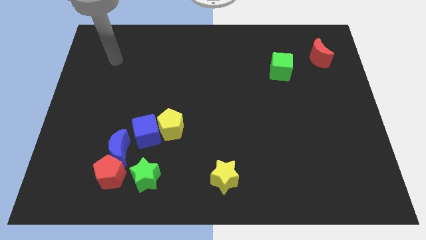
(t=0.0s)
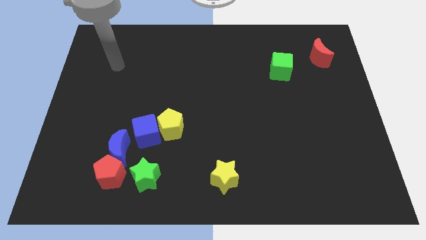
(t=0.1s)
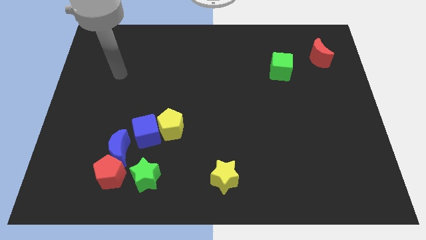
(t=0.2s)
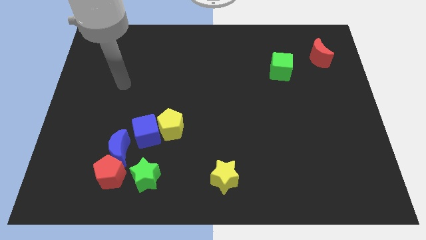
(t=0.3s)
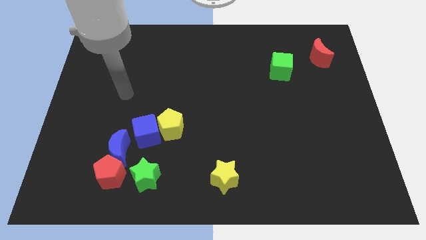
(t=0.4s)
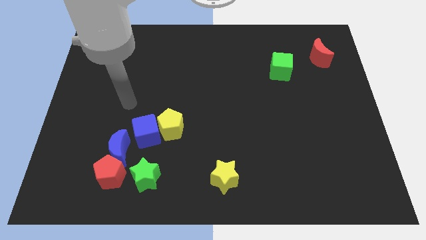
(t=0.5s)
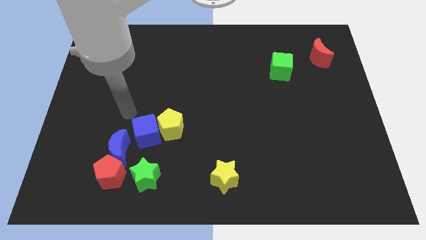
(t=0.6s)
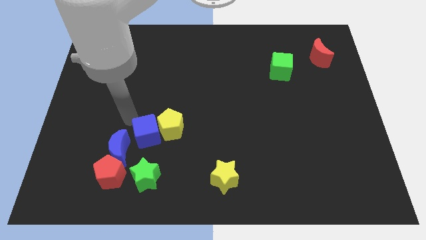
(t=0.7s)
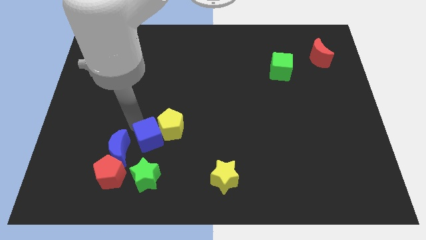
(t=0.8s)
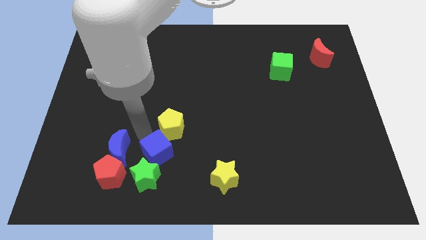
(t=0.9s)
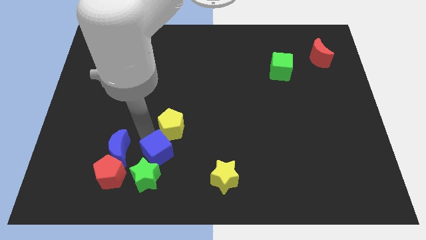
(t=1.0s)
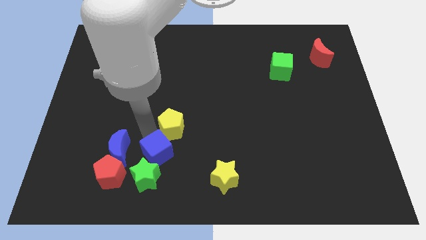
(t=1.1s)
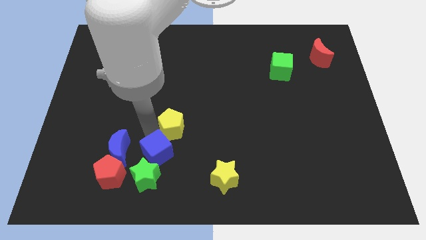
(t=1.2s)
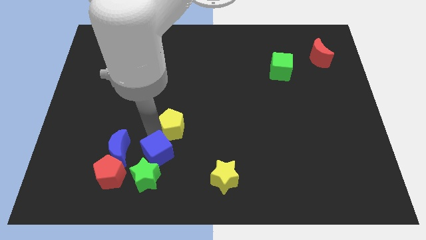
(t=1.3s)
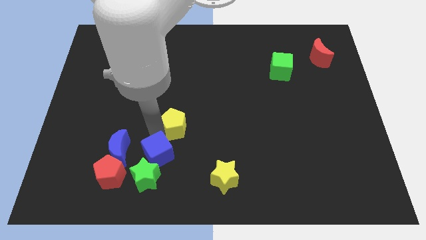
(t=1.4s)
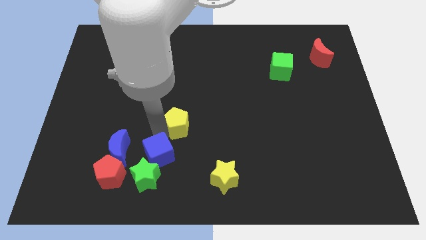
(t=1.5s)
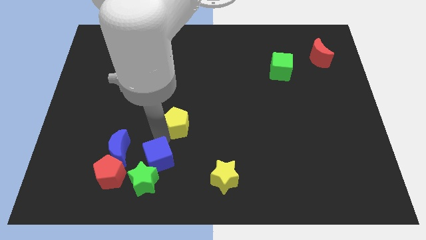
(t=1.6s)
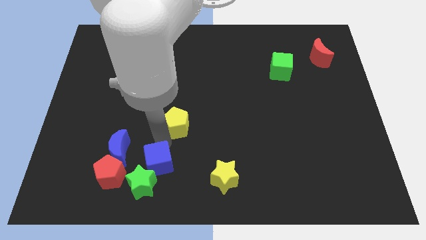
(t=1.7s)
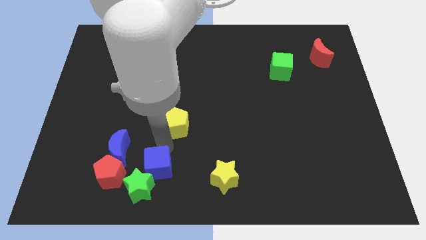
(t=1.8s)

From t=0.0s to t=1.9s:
pull the yellow pentagon apart from the blue cube

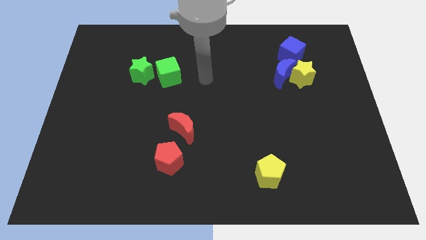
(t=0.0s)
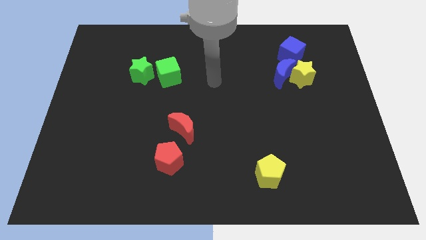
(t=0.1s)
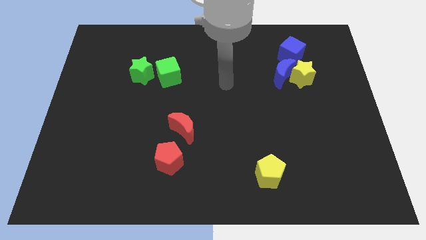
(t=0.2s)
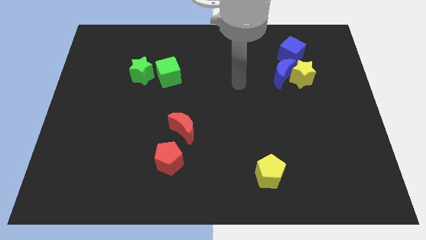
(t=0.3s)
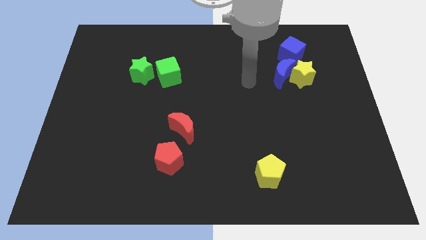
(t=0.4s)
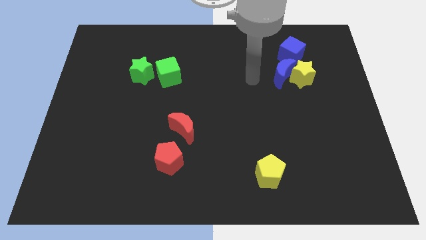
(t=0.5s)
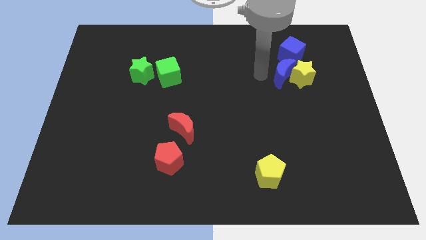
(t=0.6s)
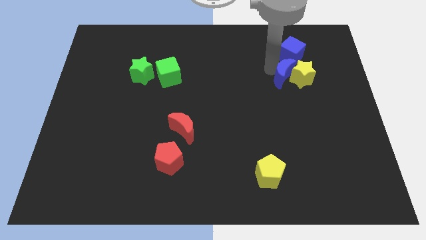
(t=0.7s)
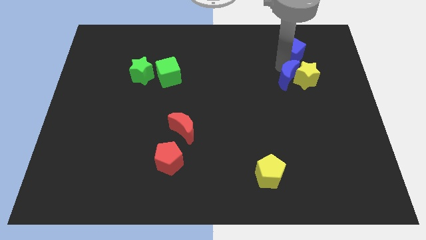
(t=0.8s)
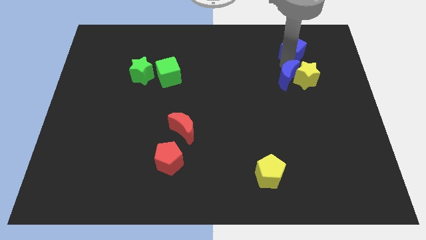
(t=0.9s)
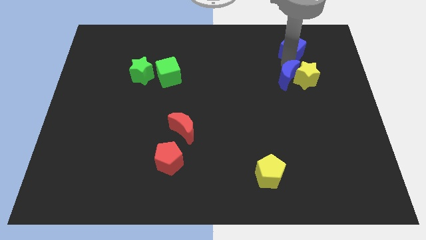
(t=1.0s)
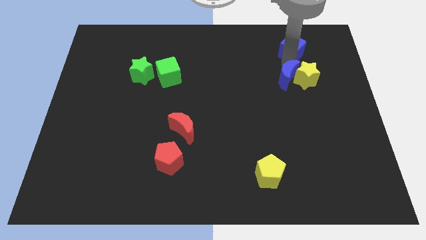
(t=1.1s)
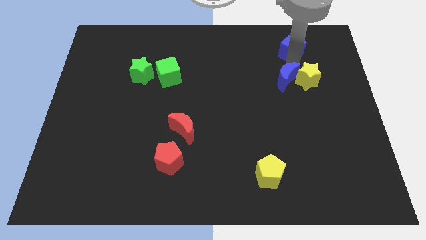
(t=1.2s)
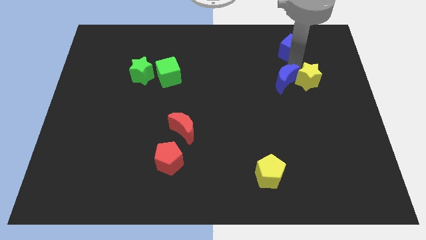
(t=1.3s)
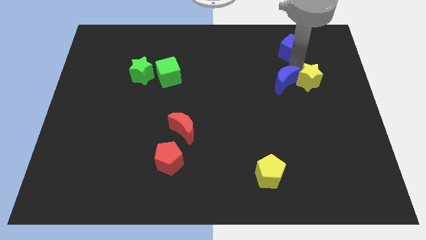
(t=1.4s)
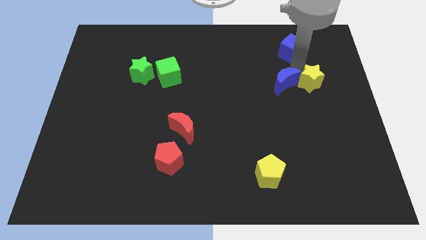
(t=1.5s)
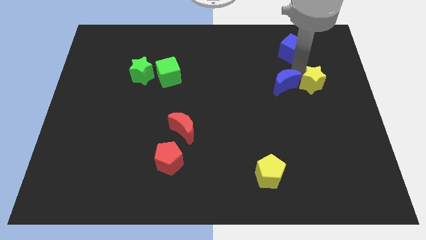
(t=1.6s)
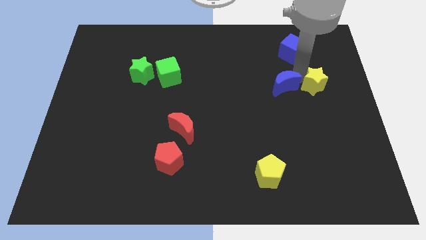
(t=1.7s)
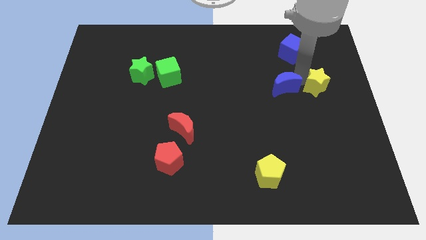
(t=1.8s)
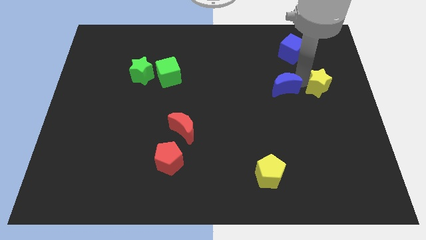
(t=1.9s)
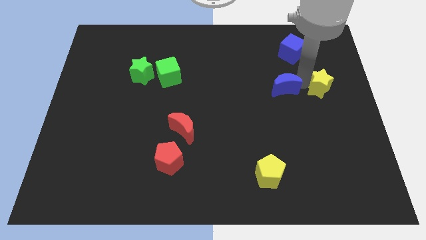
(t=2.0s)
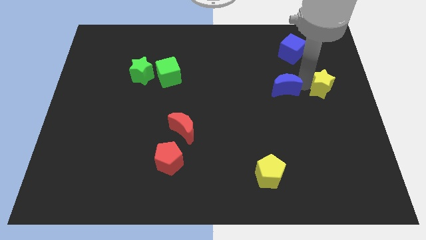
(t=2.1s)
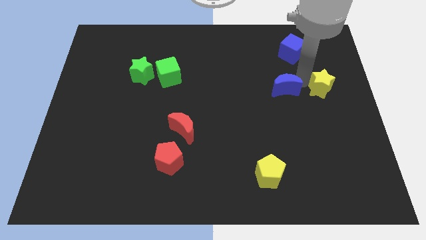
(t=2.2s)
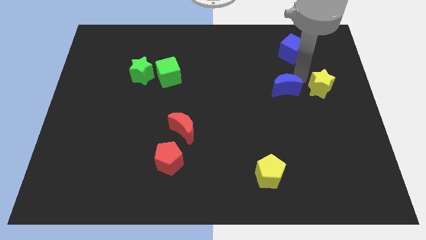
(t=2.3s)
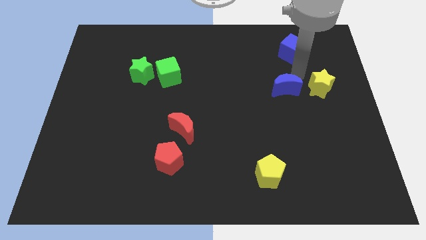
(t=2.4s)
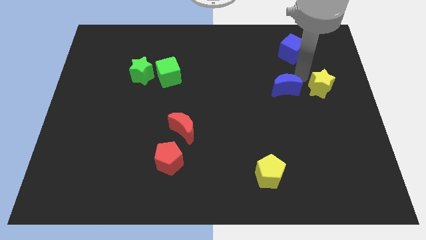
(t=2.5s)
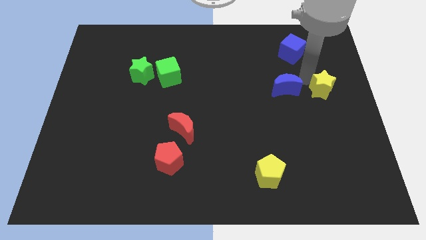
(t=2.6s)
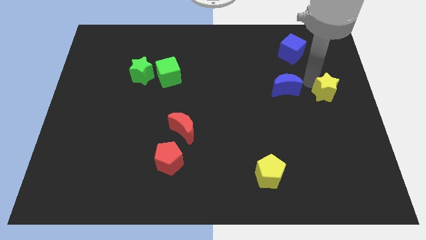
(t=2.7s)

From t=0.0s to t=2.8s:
move the yellow star away from the blue moon and blue cube

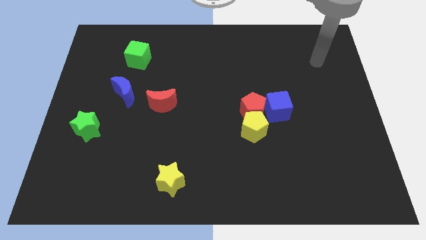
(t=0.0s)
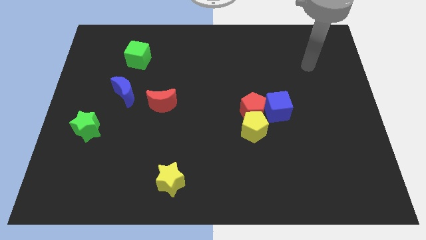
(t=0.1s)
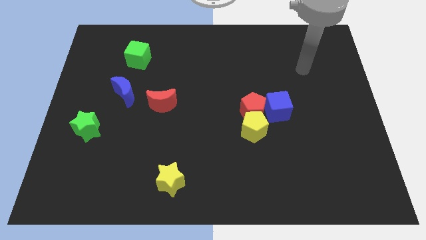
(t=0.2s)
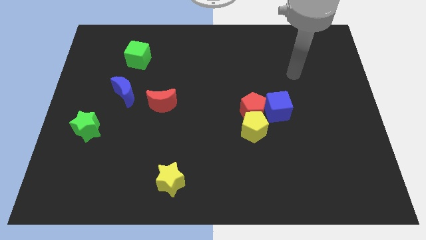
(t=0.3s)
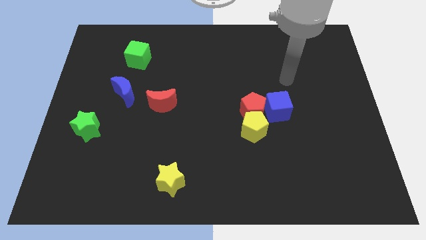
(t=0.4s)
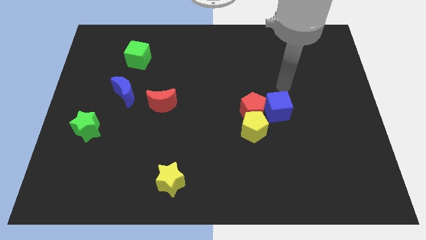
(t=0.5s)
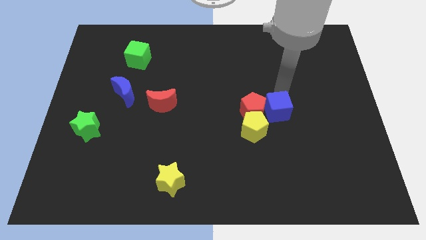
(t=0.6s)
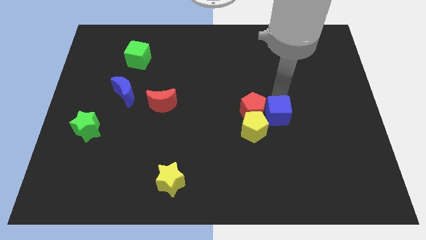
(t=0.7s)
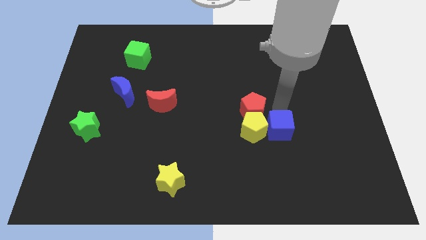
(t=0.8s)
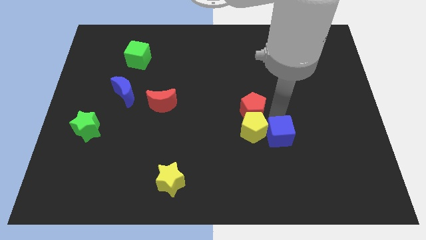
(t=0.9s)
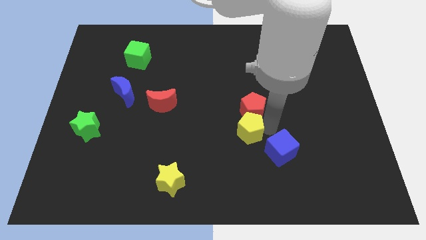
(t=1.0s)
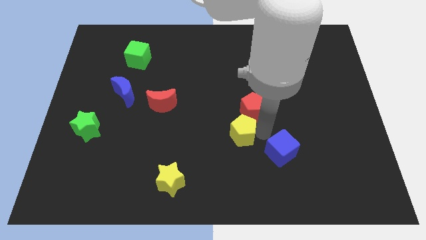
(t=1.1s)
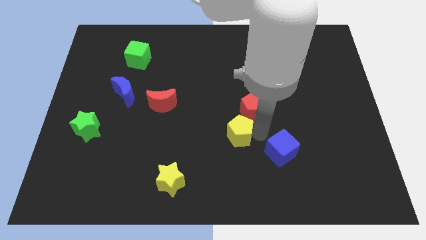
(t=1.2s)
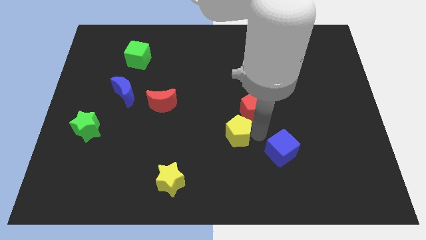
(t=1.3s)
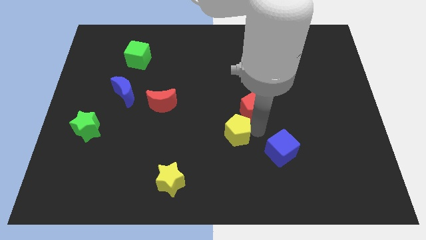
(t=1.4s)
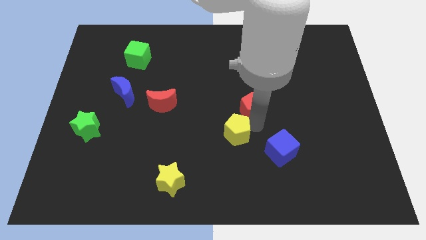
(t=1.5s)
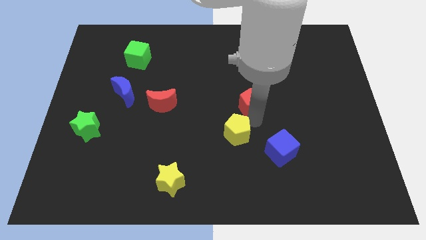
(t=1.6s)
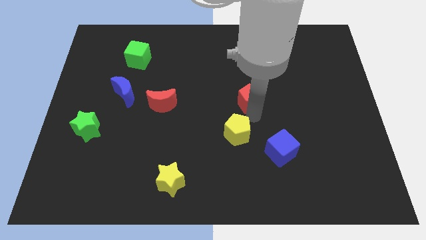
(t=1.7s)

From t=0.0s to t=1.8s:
pull the red pentagon apart from the yellow pentagon and blue cube

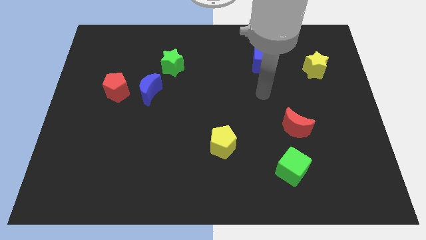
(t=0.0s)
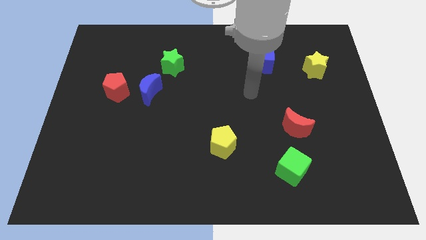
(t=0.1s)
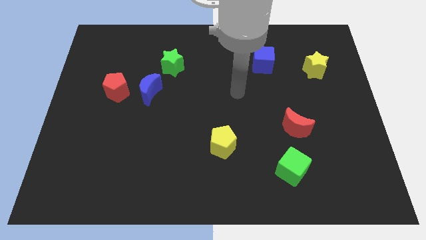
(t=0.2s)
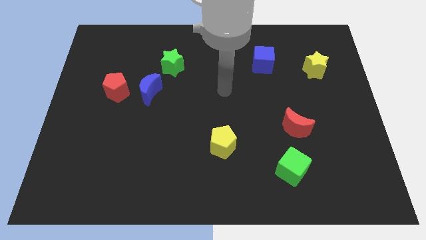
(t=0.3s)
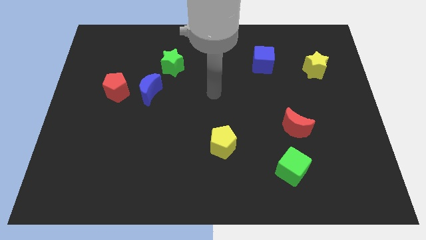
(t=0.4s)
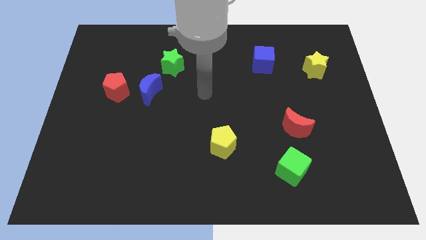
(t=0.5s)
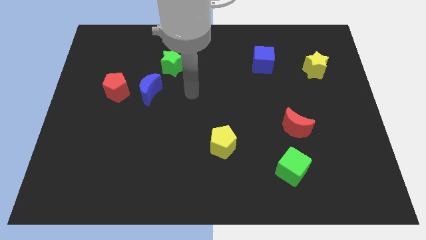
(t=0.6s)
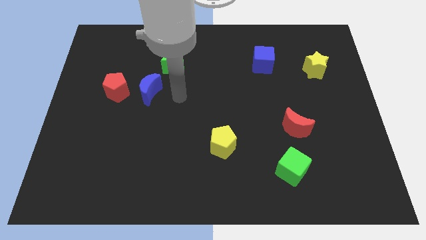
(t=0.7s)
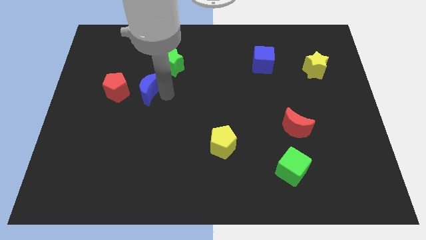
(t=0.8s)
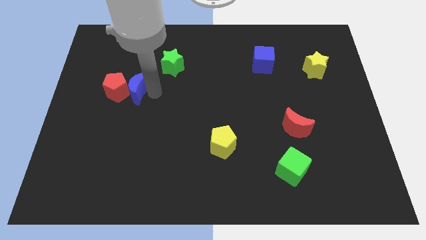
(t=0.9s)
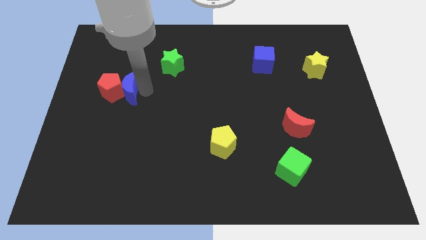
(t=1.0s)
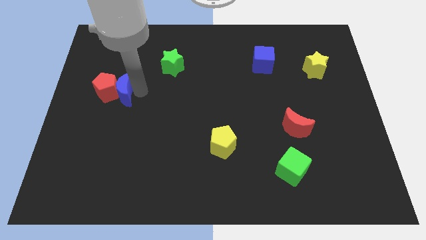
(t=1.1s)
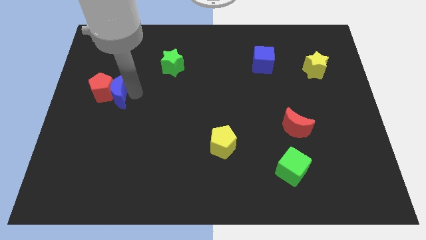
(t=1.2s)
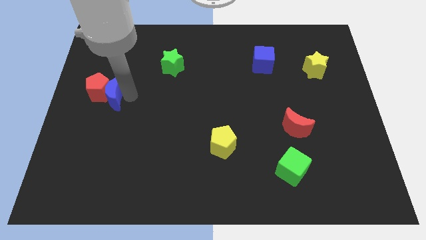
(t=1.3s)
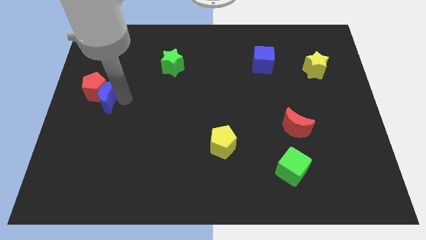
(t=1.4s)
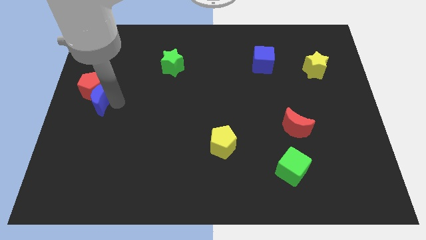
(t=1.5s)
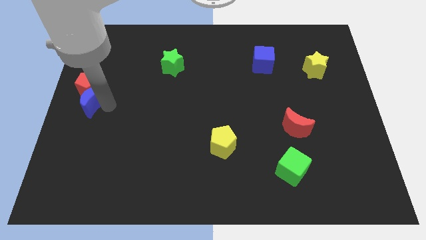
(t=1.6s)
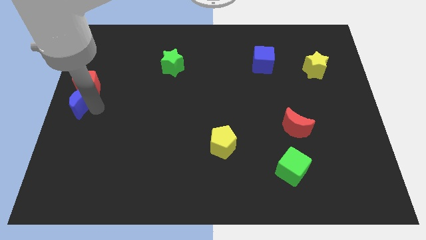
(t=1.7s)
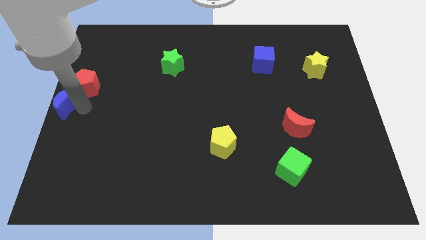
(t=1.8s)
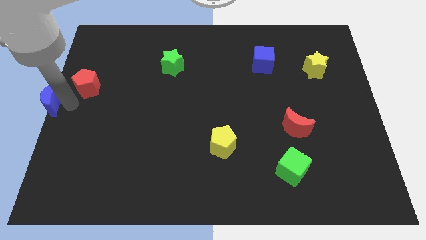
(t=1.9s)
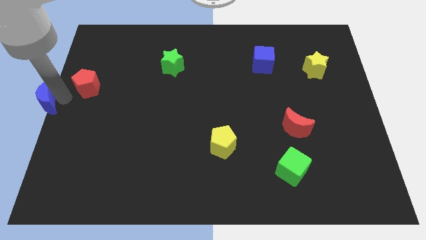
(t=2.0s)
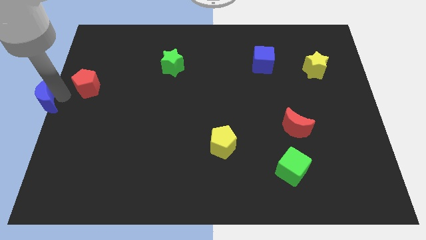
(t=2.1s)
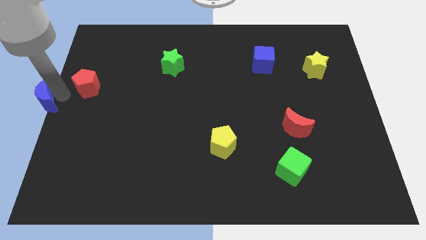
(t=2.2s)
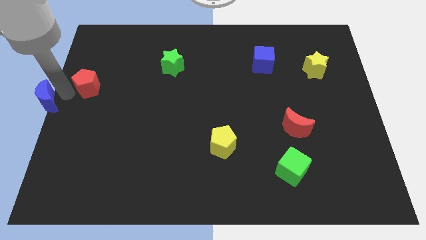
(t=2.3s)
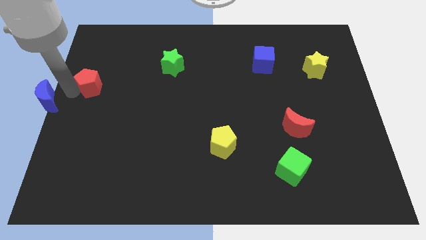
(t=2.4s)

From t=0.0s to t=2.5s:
move the red pentagon away from the blue moon

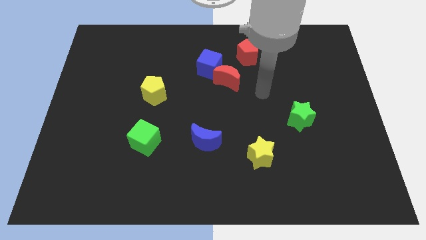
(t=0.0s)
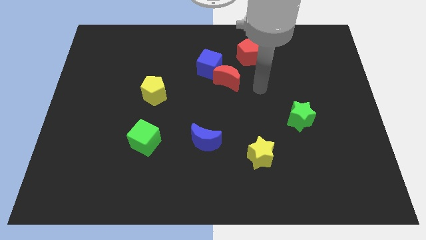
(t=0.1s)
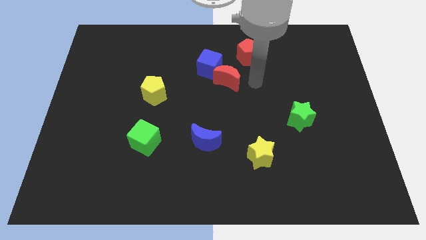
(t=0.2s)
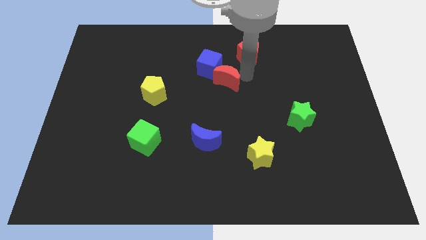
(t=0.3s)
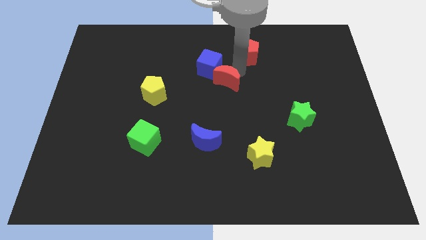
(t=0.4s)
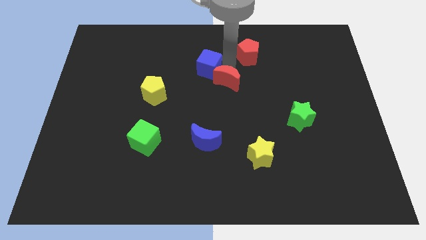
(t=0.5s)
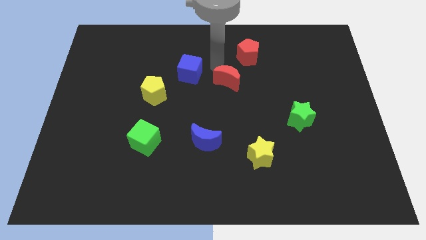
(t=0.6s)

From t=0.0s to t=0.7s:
pull the red moon apart from the blue cube
